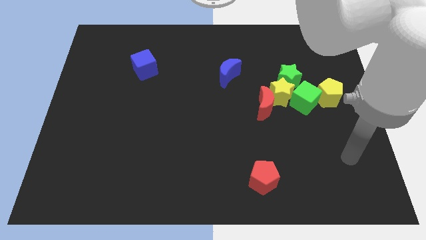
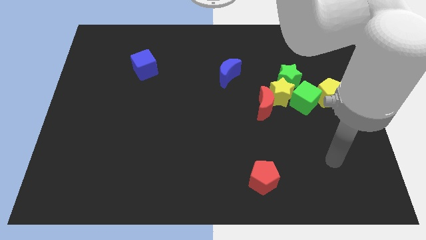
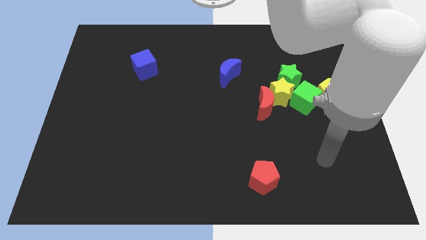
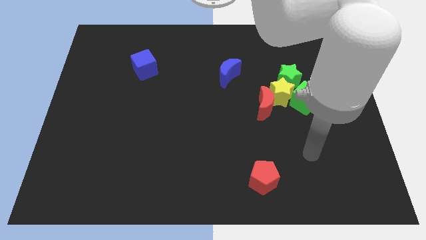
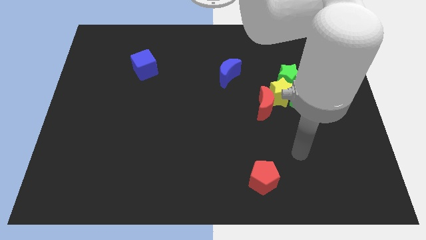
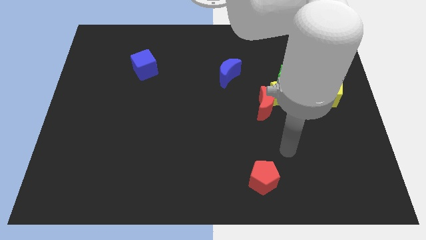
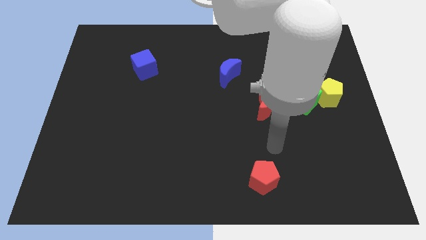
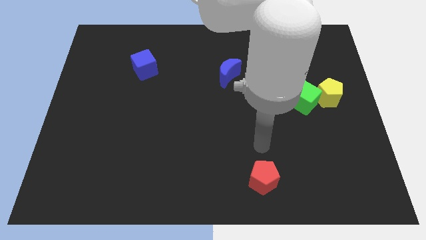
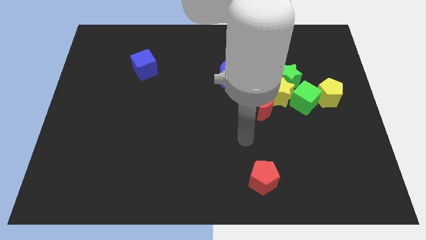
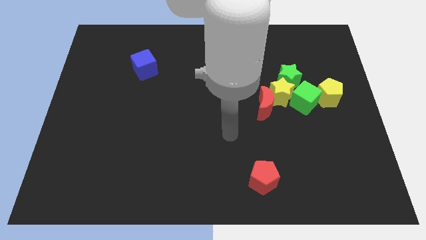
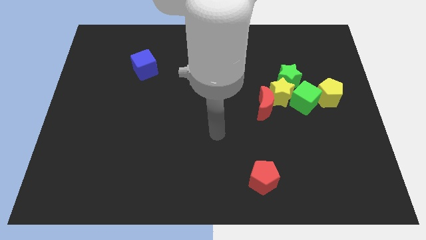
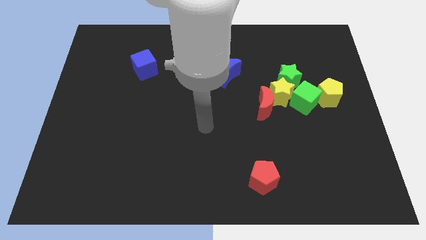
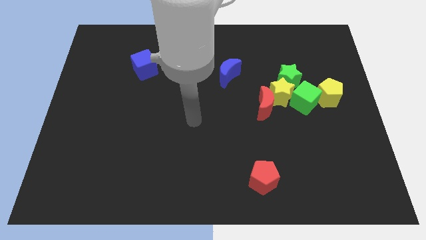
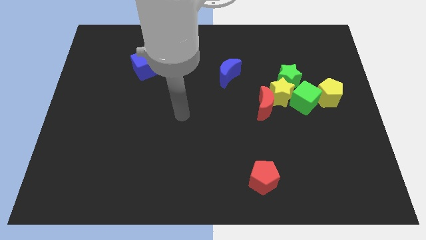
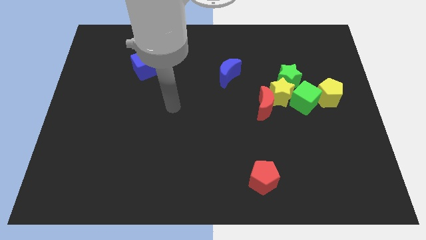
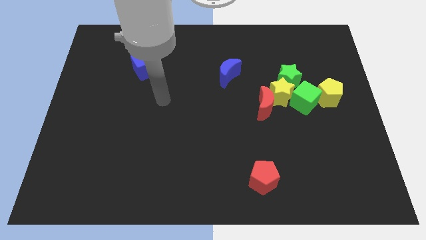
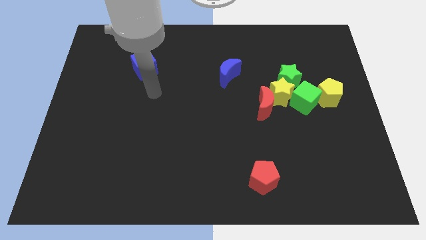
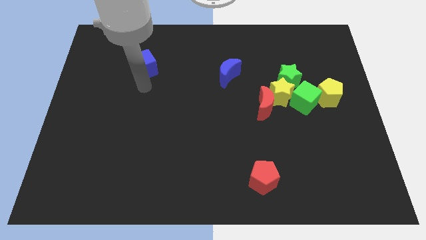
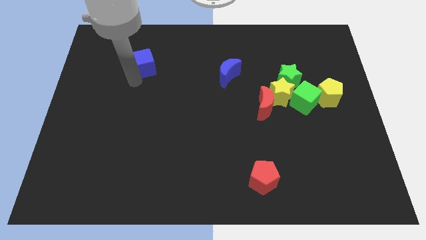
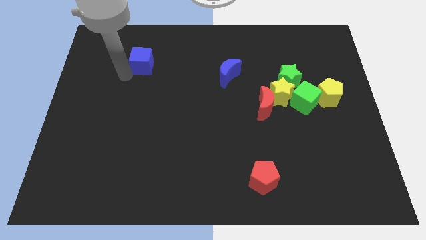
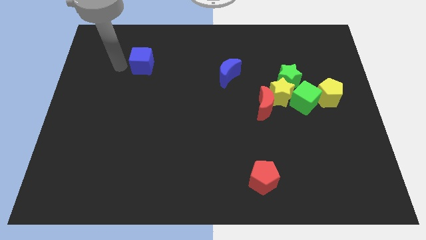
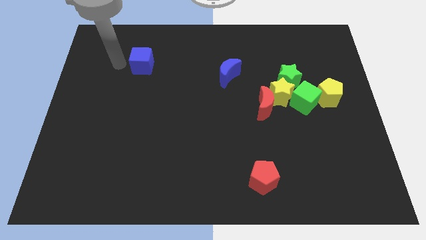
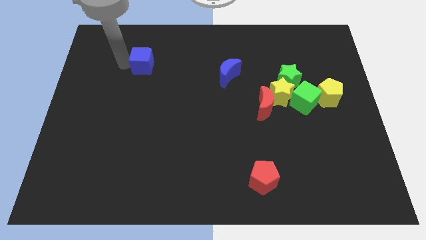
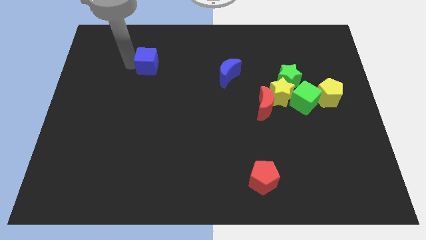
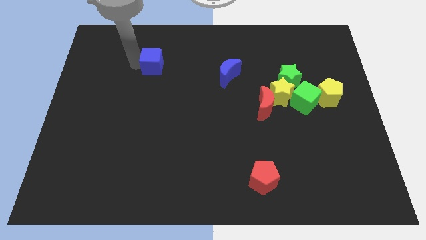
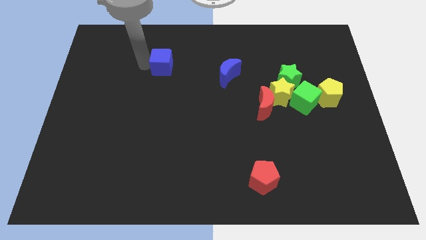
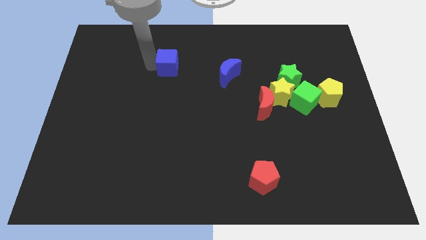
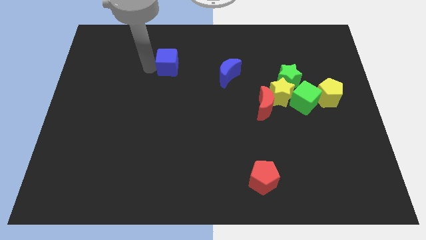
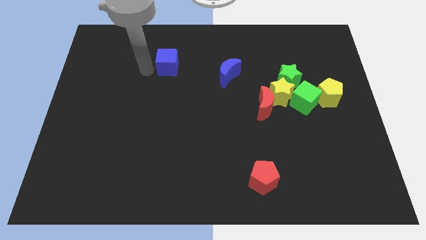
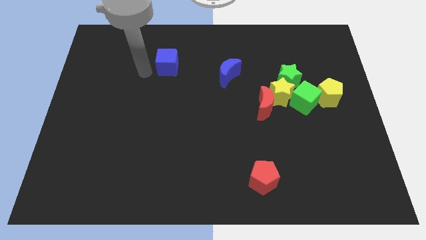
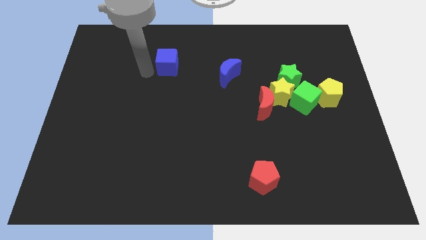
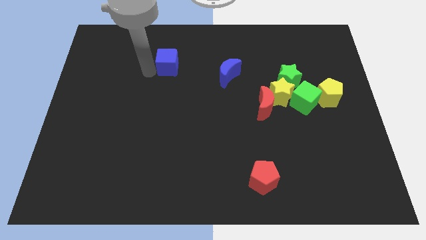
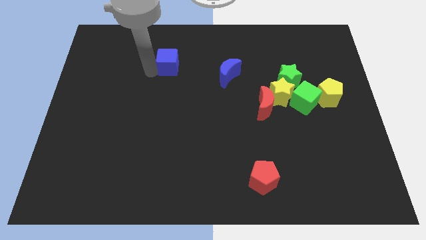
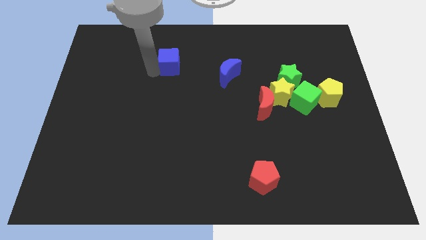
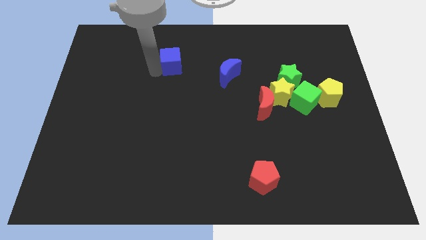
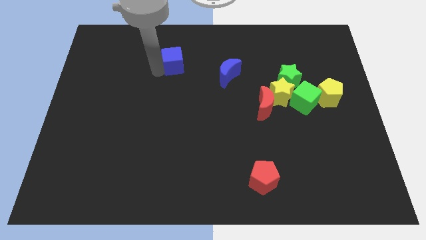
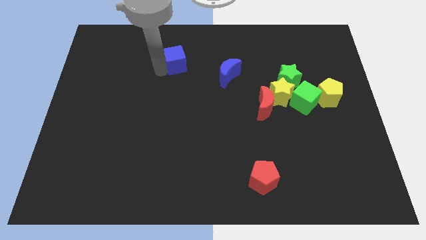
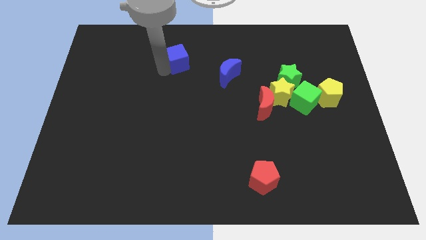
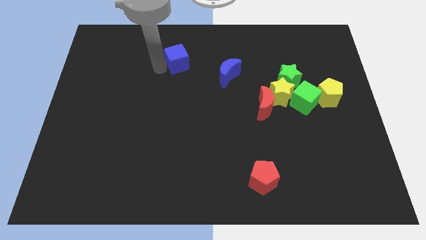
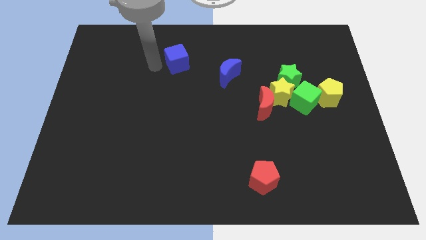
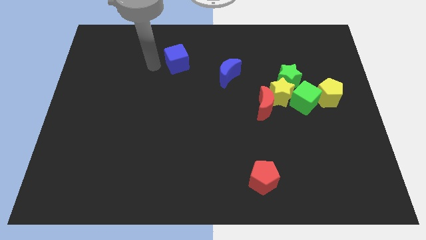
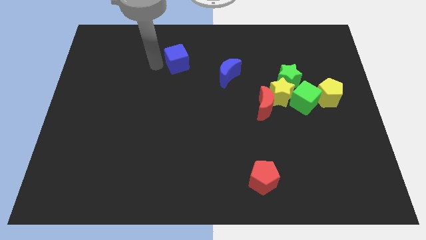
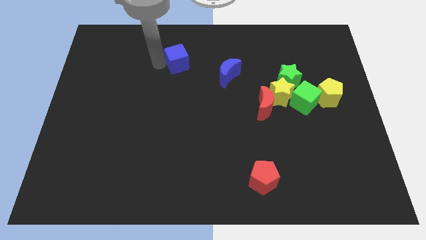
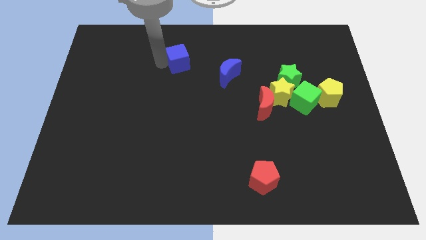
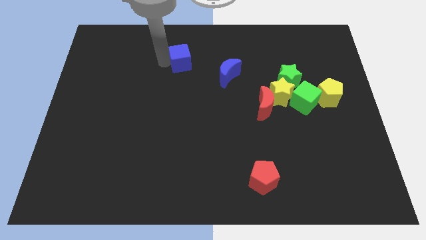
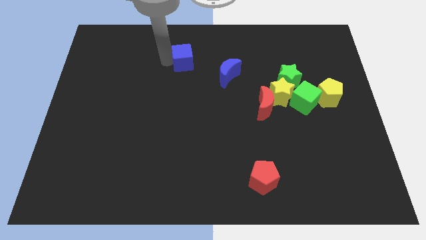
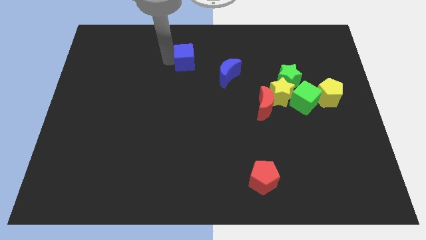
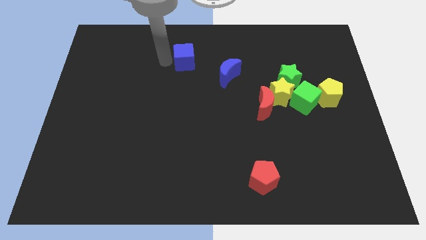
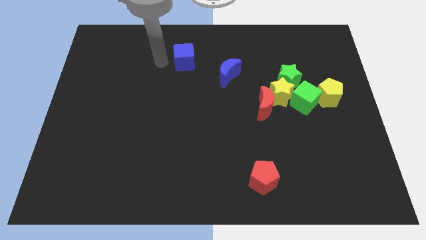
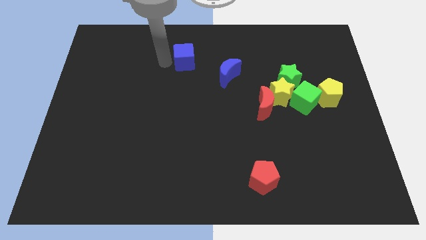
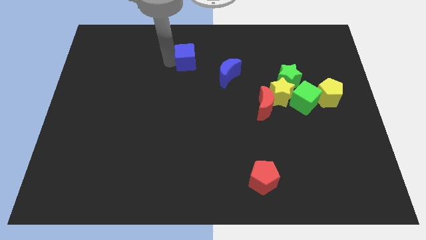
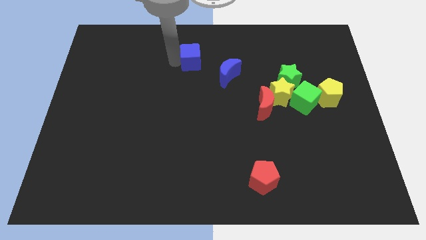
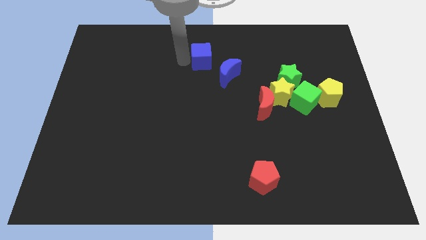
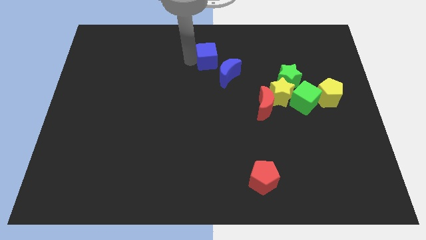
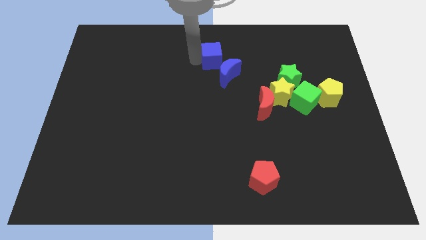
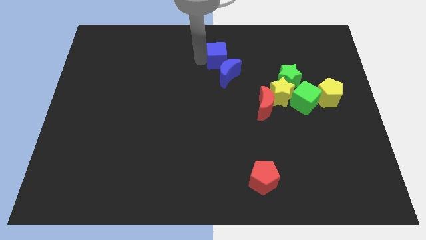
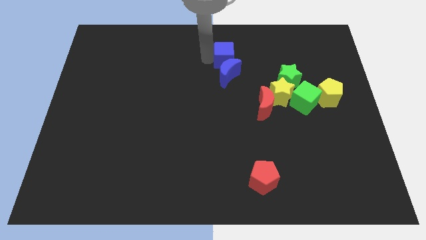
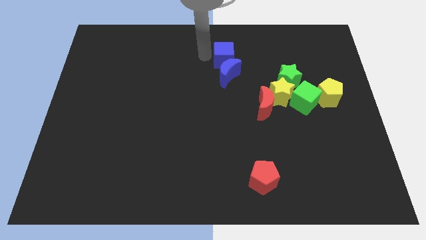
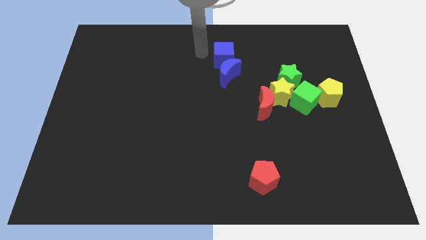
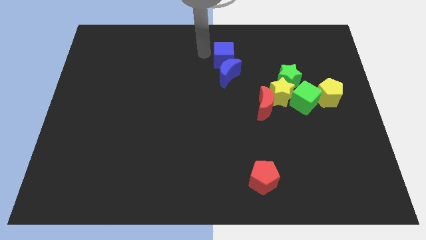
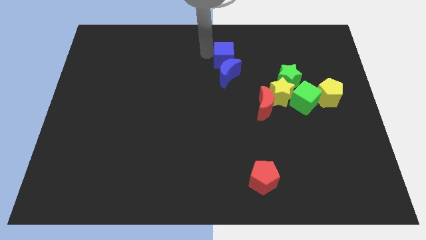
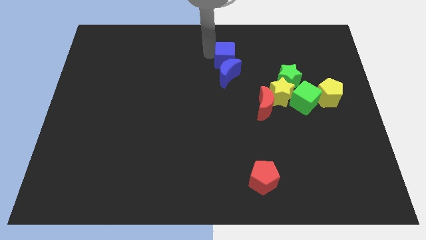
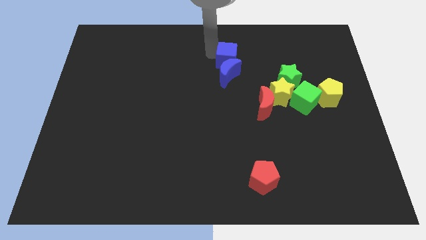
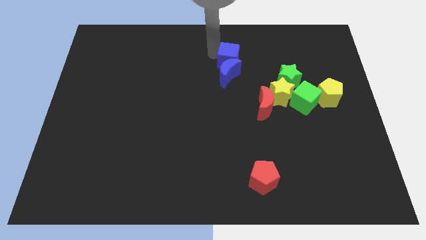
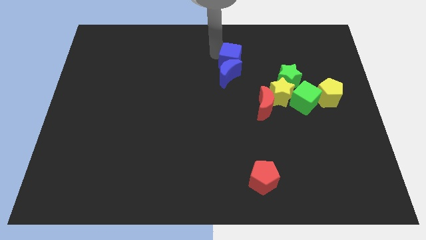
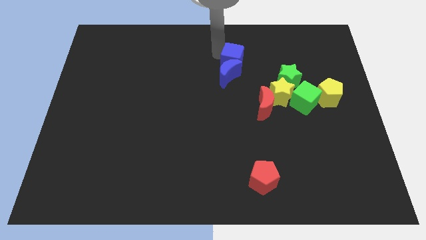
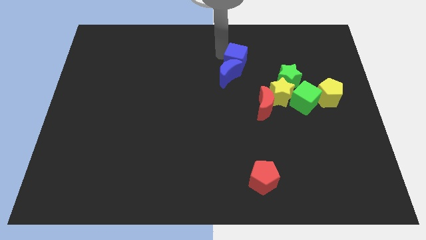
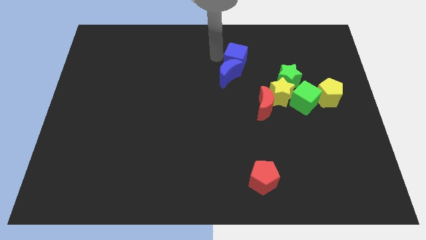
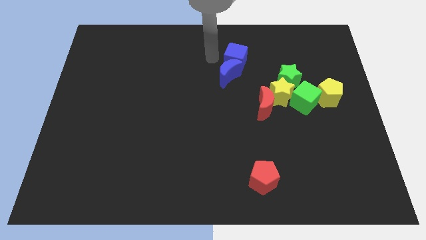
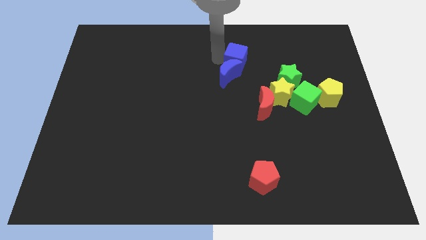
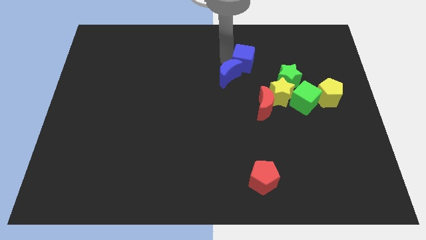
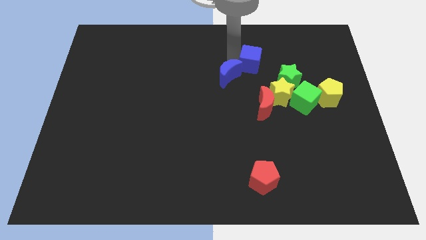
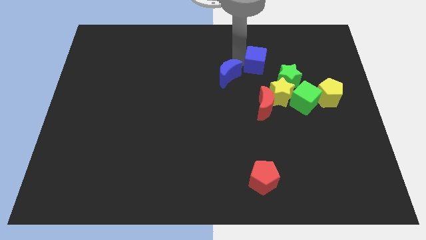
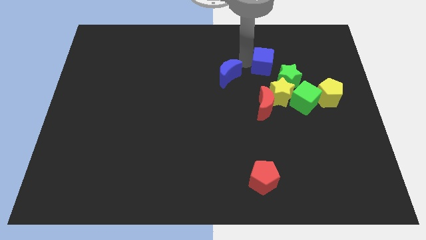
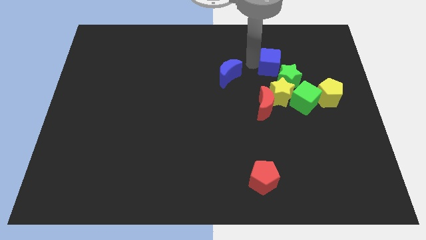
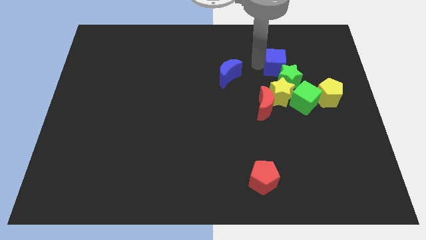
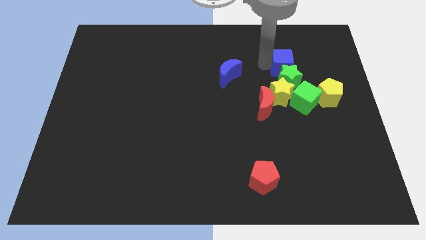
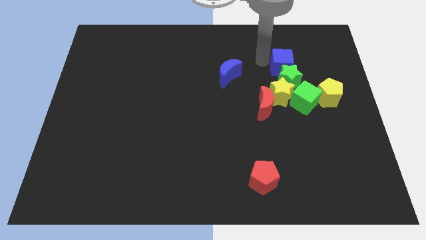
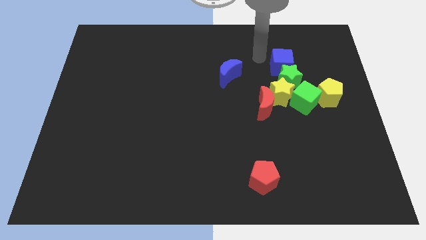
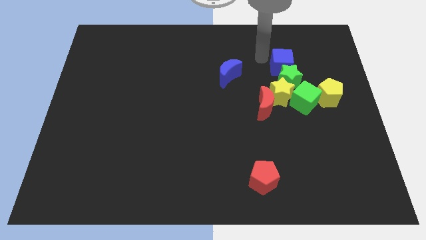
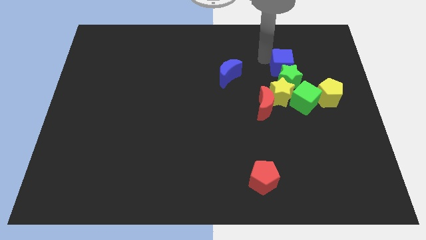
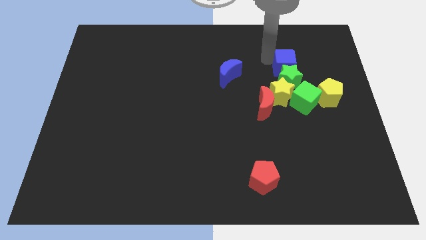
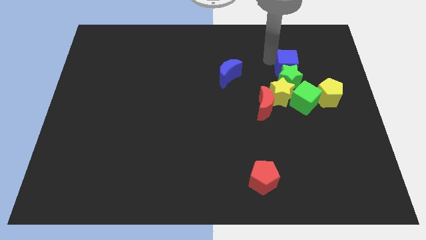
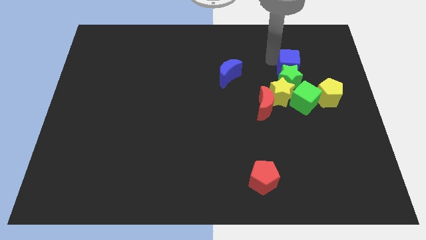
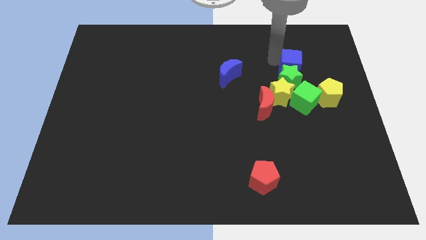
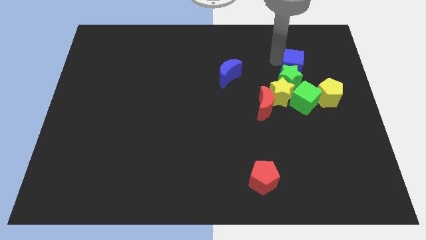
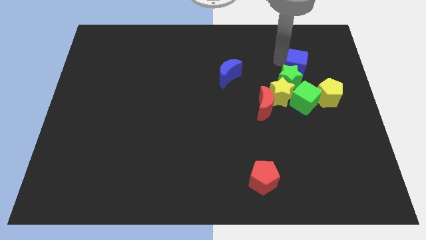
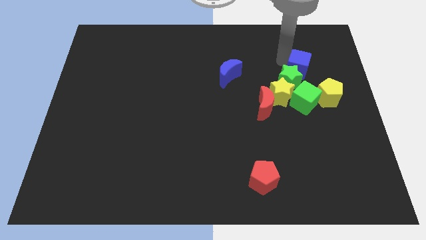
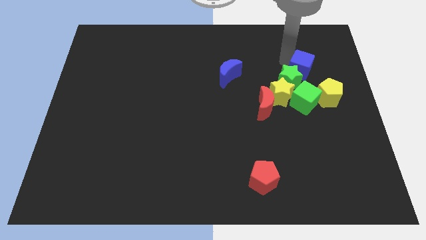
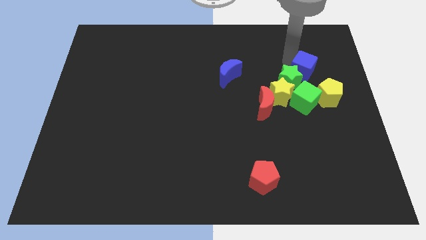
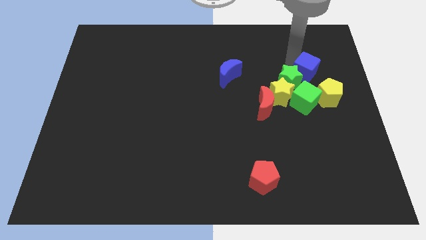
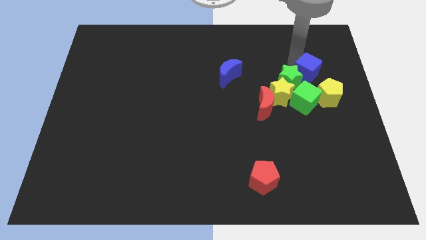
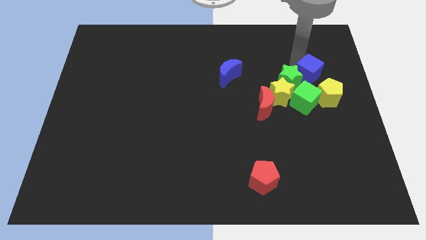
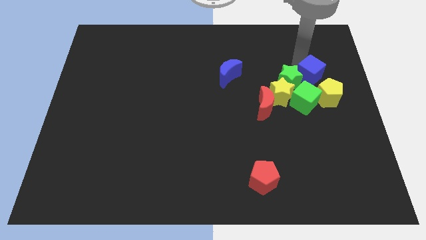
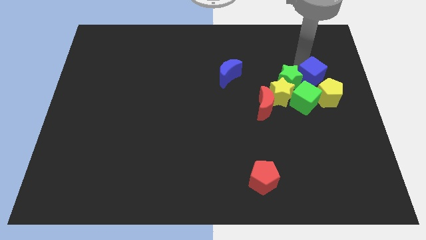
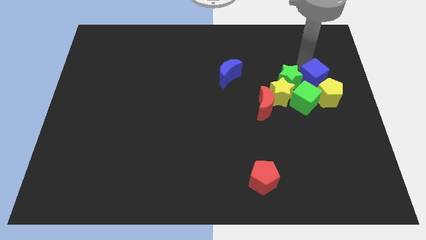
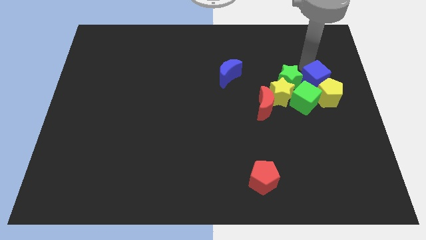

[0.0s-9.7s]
put the blue cube to the yellow pentagon
